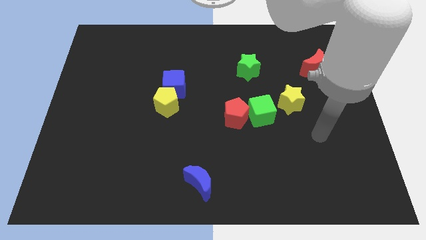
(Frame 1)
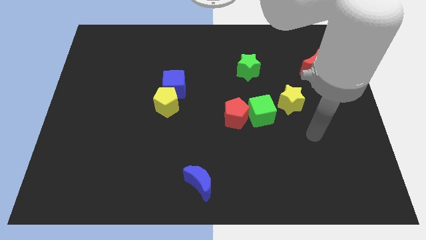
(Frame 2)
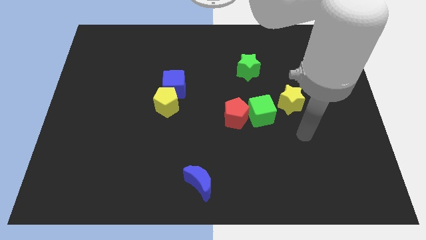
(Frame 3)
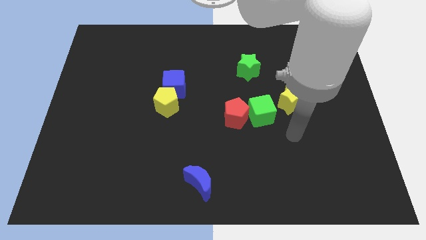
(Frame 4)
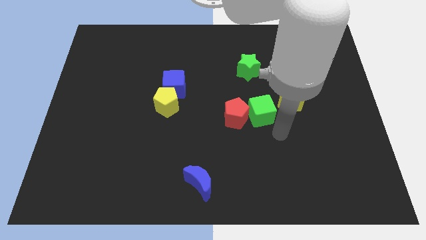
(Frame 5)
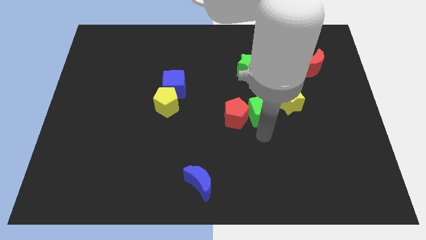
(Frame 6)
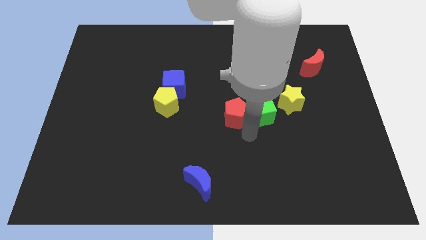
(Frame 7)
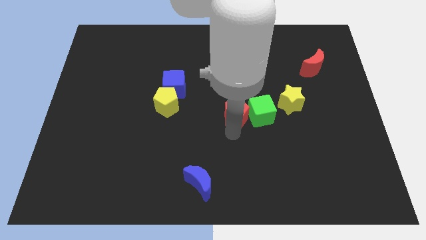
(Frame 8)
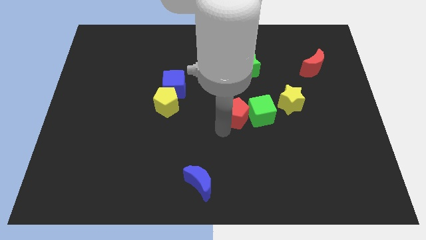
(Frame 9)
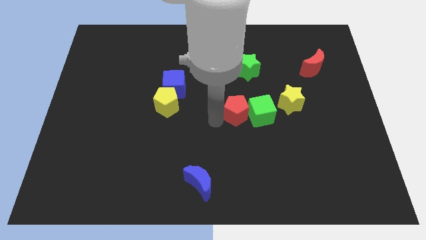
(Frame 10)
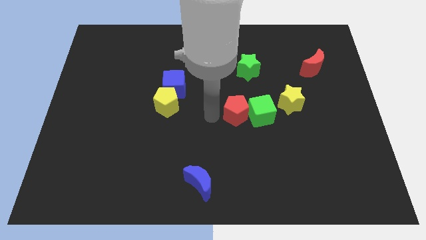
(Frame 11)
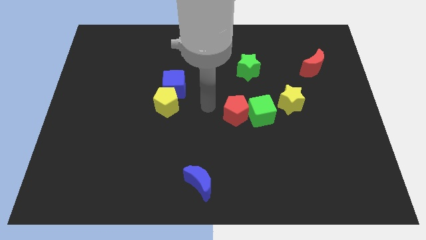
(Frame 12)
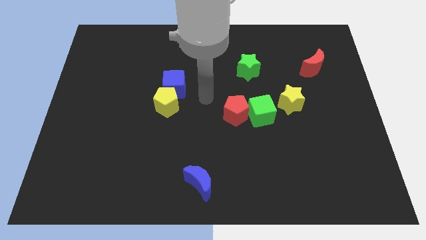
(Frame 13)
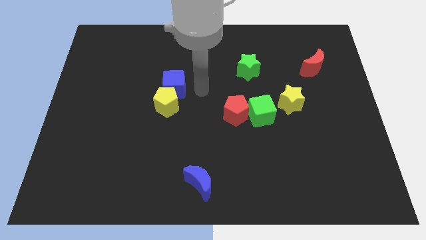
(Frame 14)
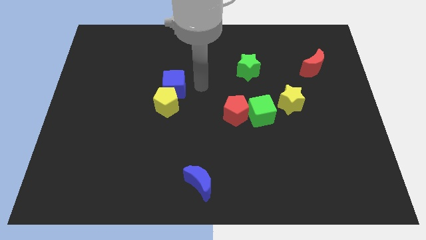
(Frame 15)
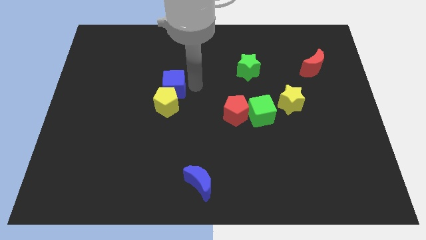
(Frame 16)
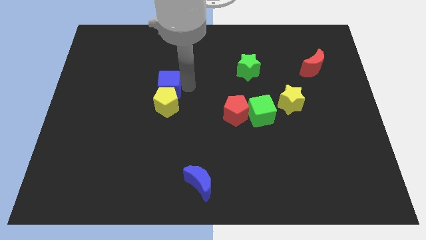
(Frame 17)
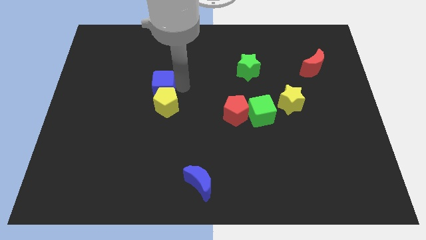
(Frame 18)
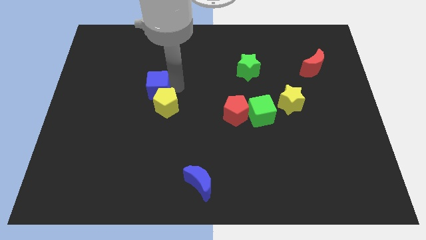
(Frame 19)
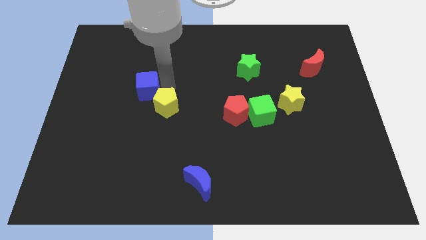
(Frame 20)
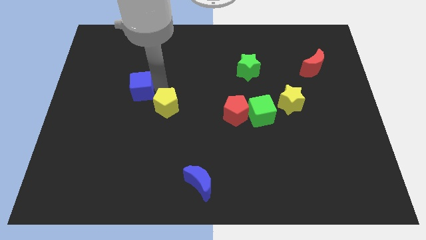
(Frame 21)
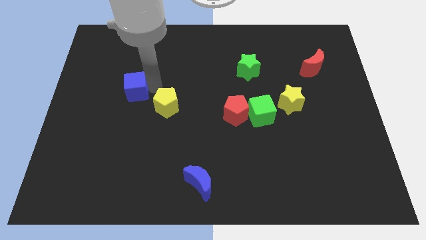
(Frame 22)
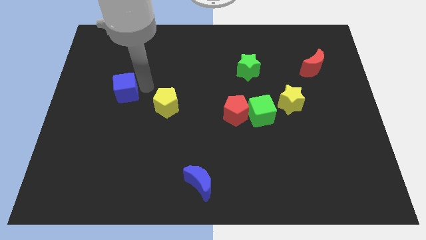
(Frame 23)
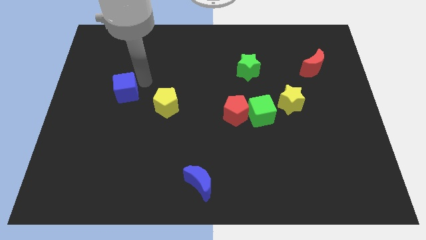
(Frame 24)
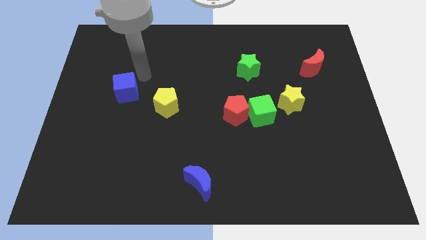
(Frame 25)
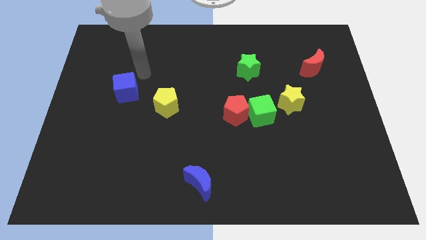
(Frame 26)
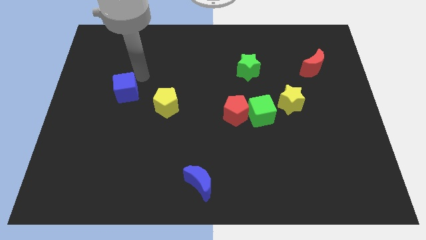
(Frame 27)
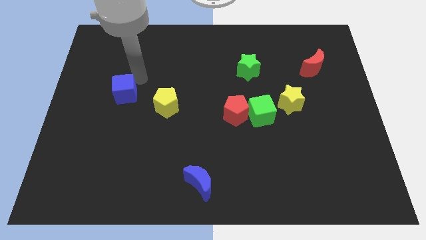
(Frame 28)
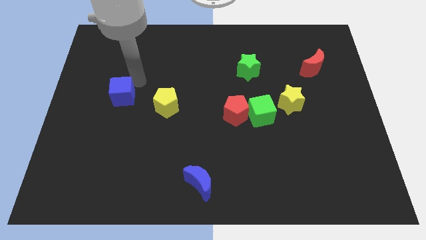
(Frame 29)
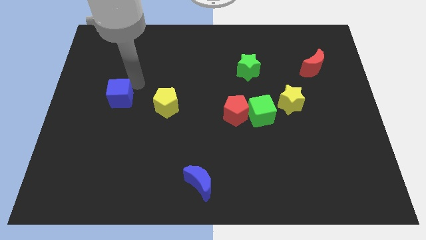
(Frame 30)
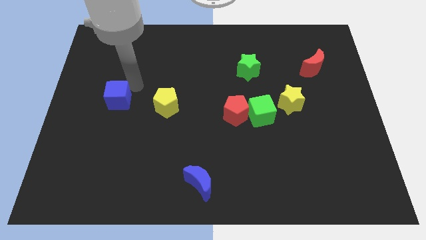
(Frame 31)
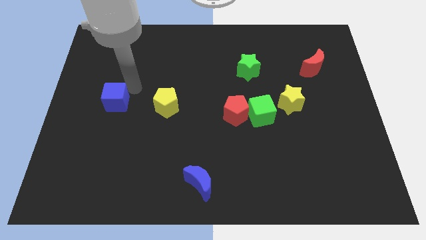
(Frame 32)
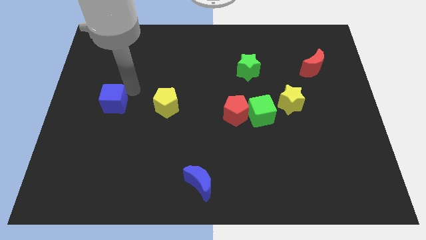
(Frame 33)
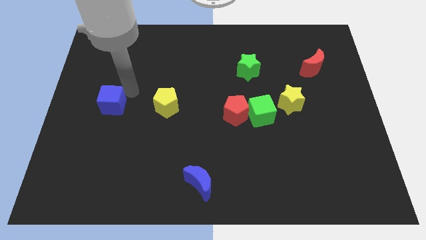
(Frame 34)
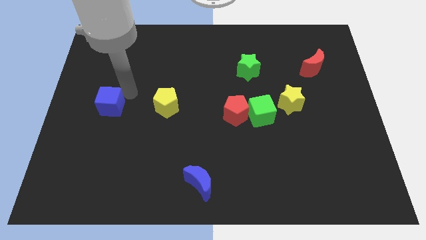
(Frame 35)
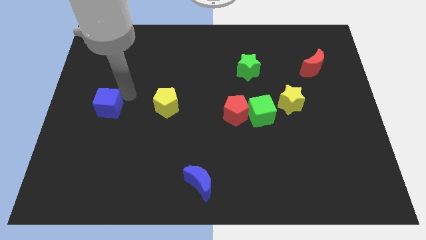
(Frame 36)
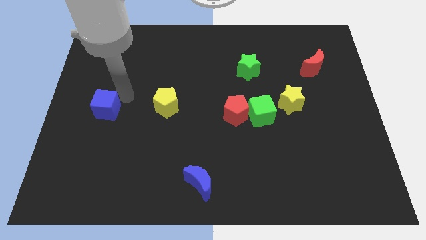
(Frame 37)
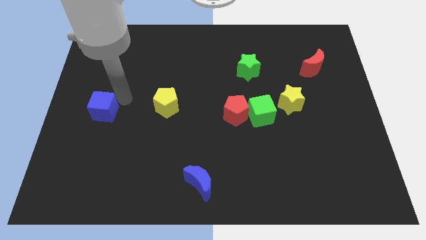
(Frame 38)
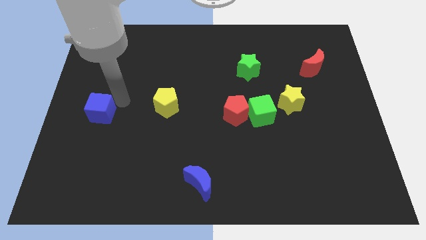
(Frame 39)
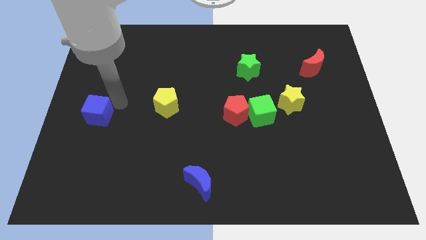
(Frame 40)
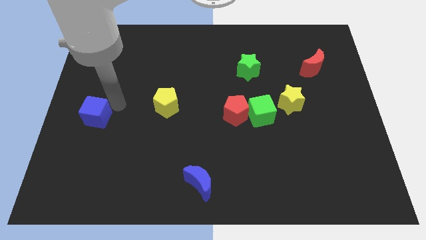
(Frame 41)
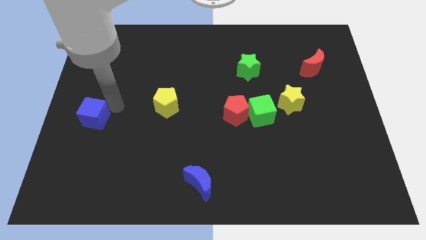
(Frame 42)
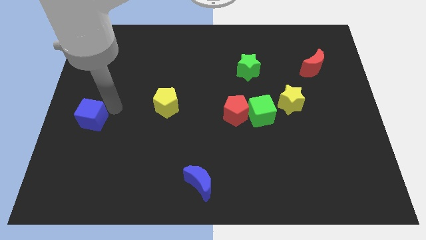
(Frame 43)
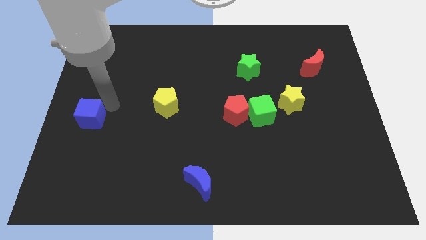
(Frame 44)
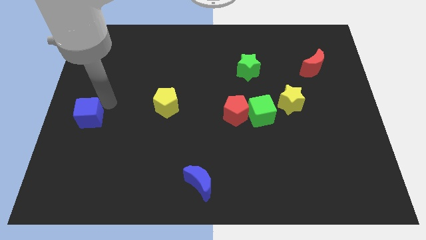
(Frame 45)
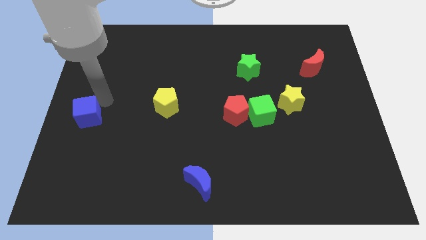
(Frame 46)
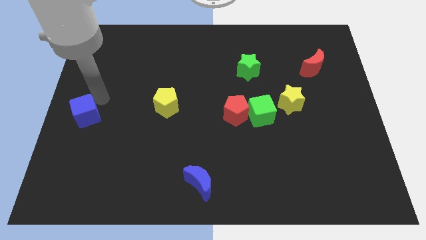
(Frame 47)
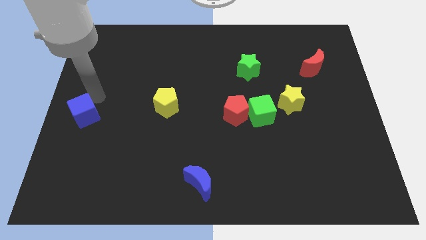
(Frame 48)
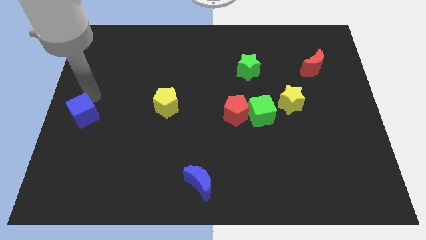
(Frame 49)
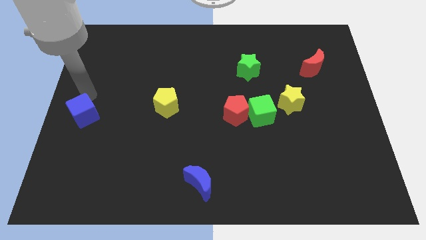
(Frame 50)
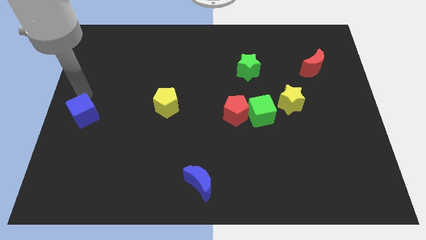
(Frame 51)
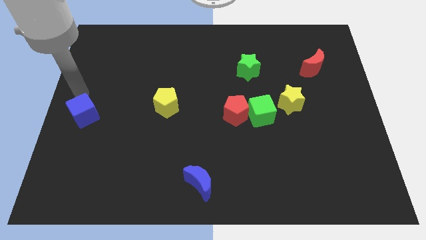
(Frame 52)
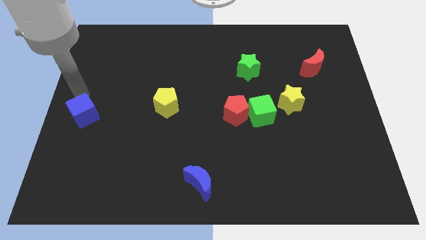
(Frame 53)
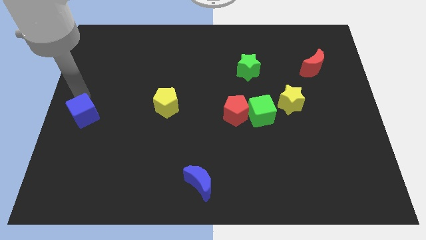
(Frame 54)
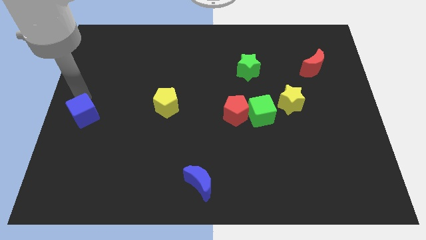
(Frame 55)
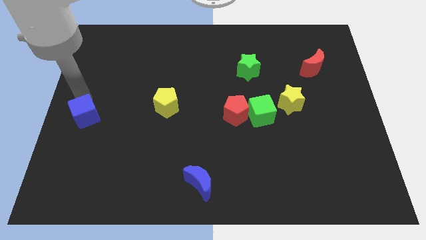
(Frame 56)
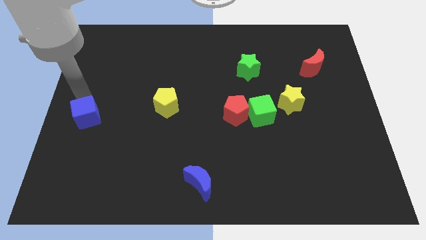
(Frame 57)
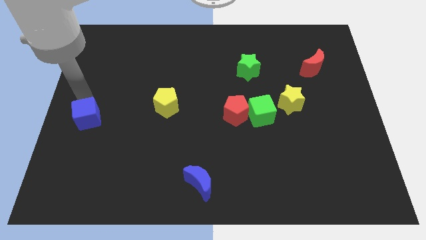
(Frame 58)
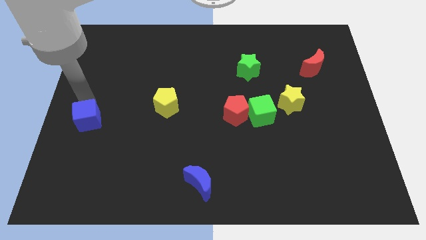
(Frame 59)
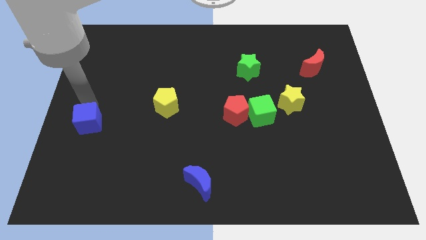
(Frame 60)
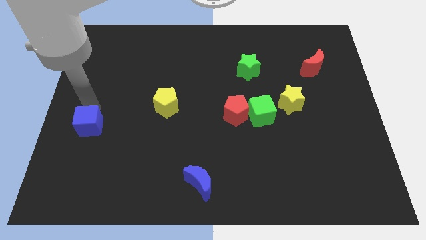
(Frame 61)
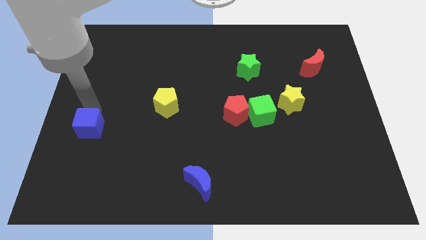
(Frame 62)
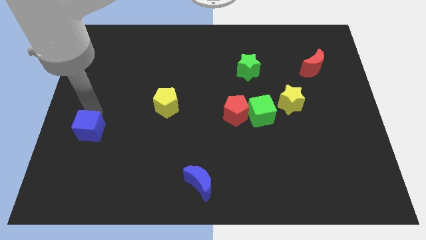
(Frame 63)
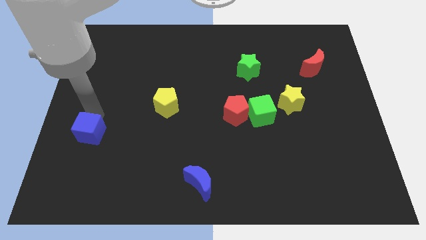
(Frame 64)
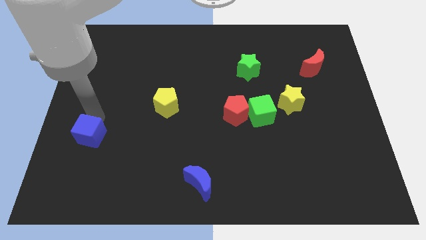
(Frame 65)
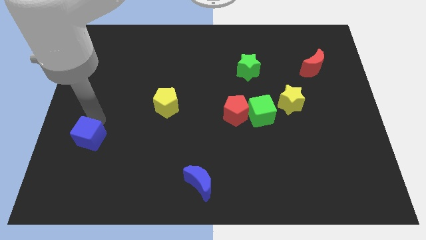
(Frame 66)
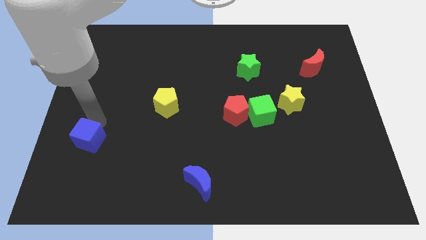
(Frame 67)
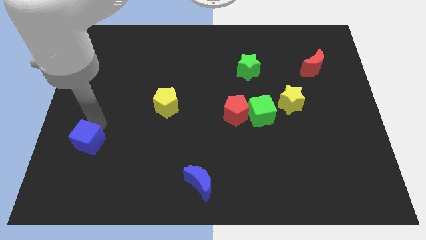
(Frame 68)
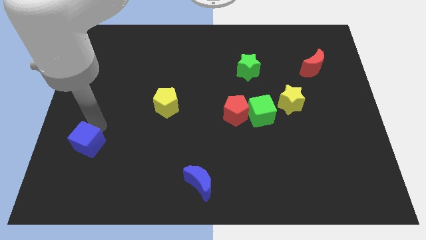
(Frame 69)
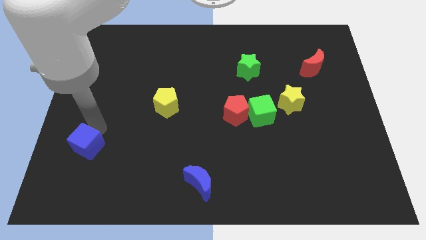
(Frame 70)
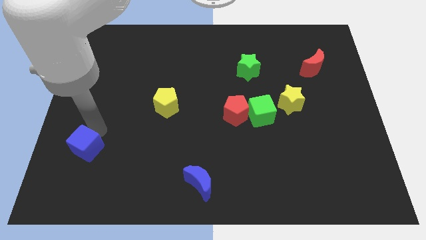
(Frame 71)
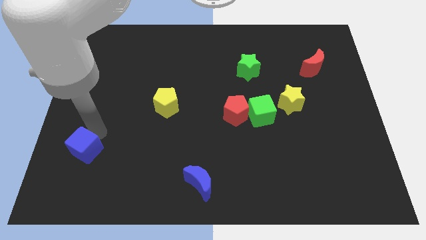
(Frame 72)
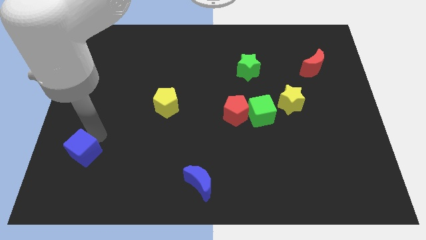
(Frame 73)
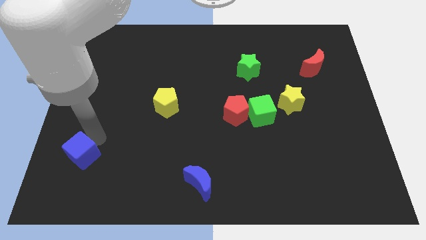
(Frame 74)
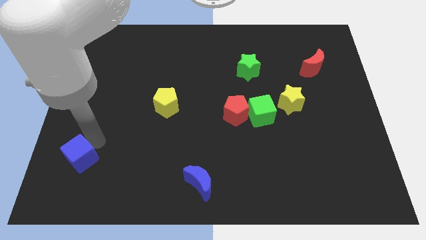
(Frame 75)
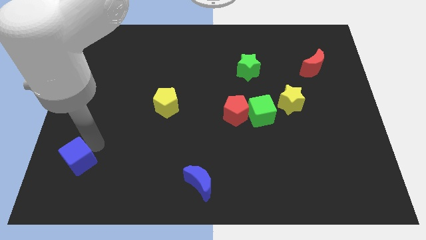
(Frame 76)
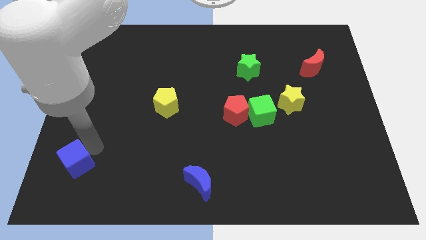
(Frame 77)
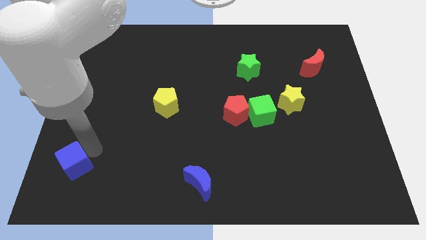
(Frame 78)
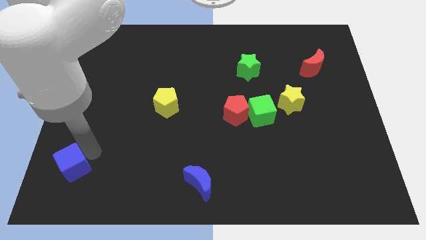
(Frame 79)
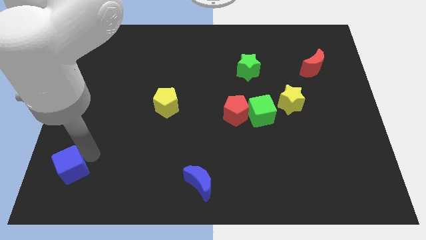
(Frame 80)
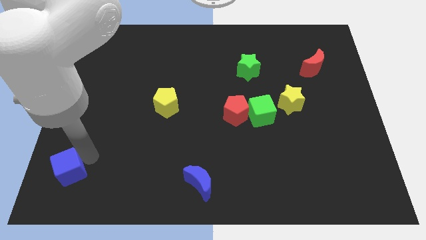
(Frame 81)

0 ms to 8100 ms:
slide the blue cube to the bottom left of the board
